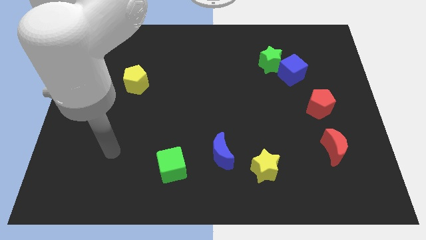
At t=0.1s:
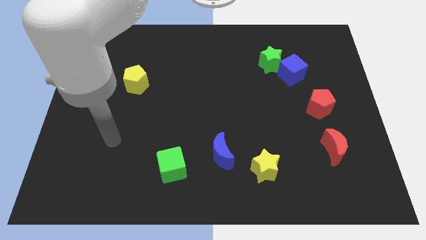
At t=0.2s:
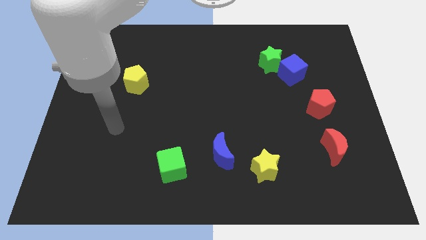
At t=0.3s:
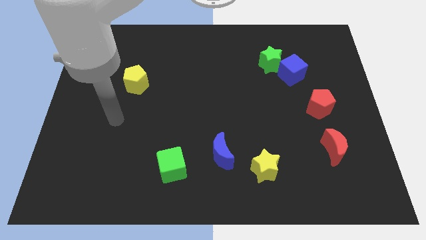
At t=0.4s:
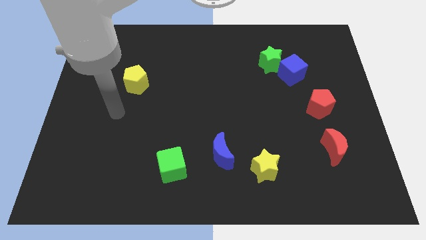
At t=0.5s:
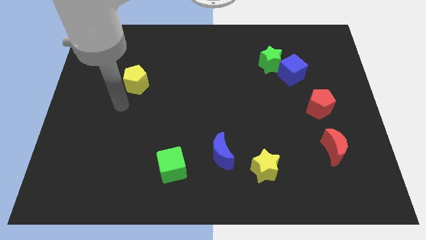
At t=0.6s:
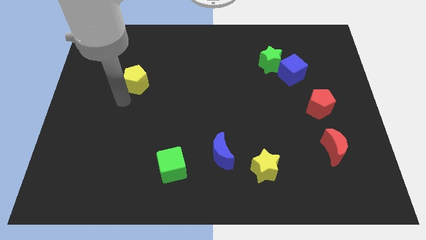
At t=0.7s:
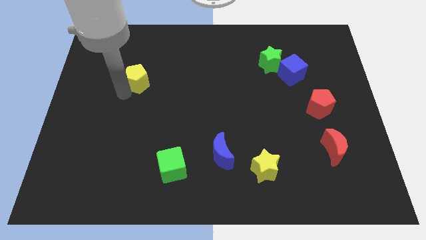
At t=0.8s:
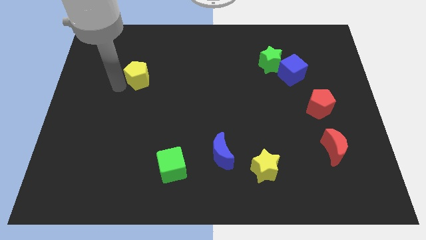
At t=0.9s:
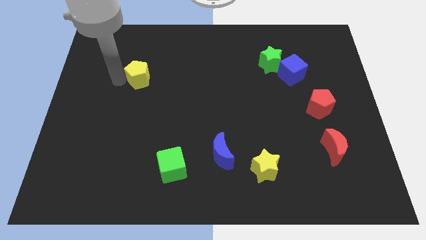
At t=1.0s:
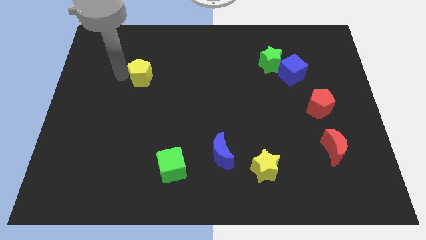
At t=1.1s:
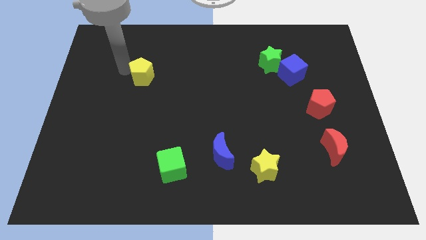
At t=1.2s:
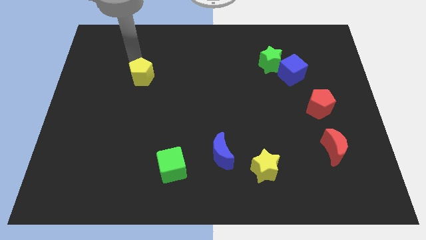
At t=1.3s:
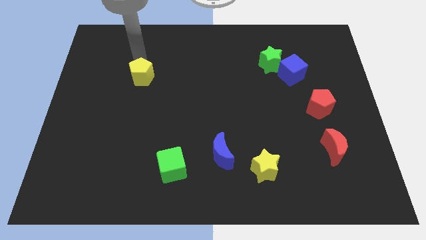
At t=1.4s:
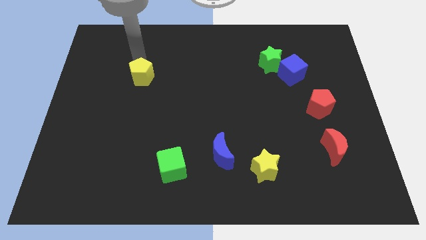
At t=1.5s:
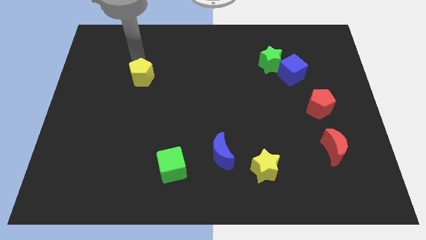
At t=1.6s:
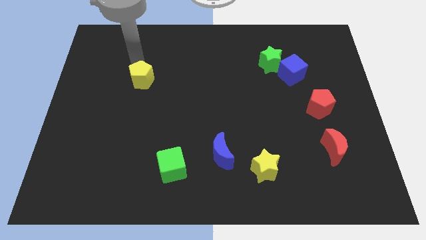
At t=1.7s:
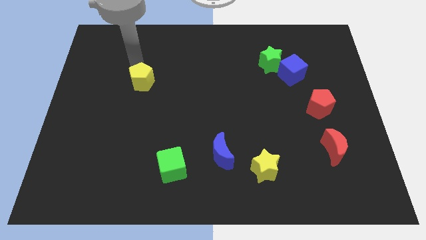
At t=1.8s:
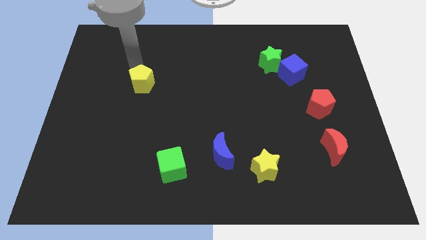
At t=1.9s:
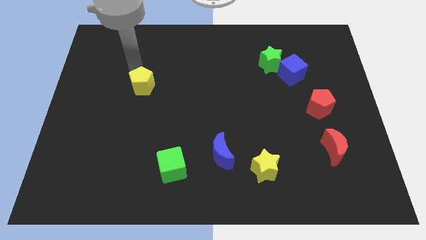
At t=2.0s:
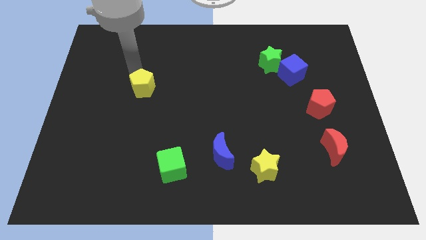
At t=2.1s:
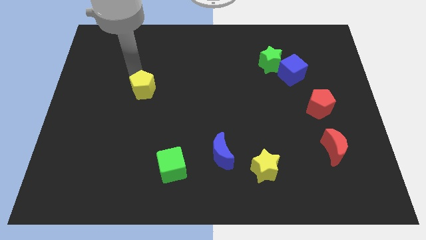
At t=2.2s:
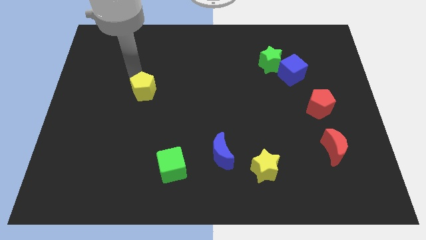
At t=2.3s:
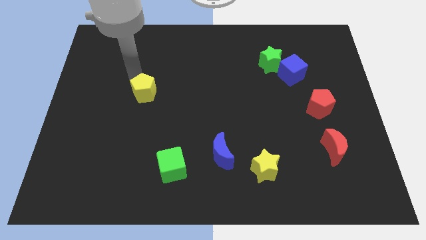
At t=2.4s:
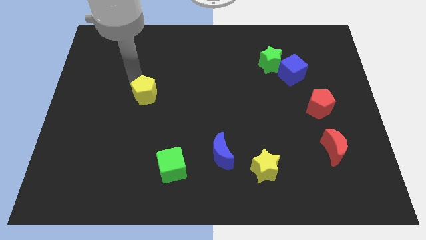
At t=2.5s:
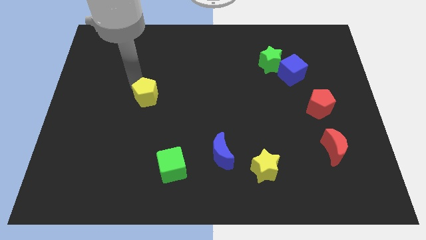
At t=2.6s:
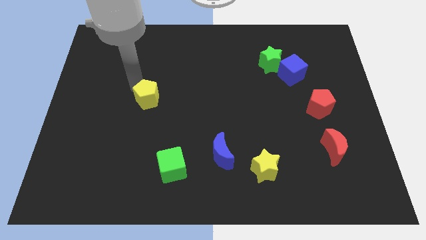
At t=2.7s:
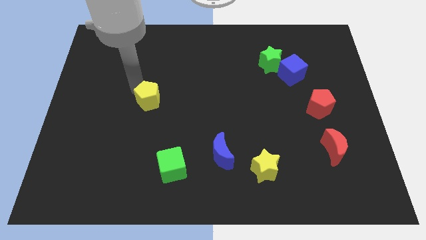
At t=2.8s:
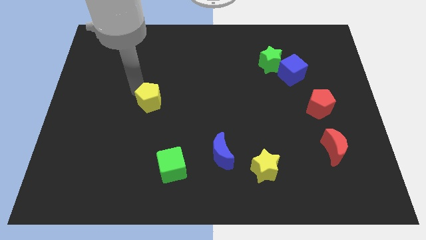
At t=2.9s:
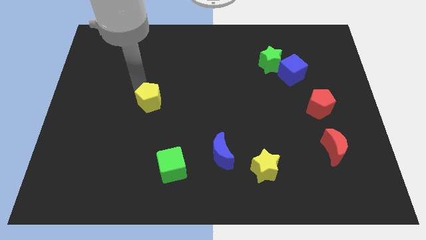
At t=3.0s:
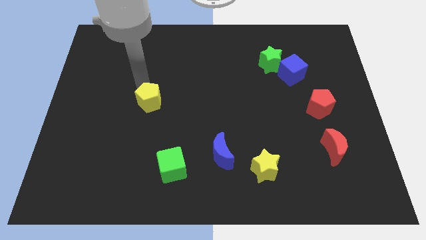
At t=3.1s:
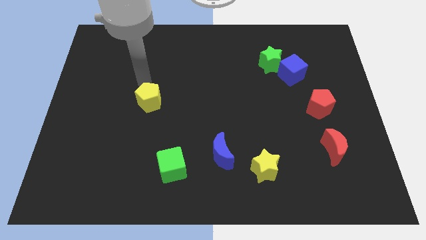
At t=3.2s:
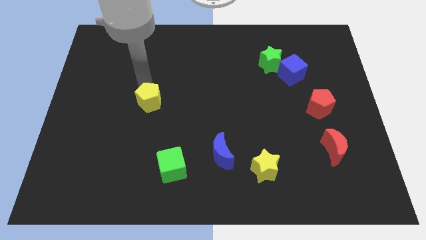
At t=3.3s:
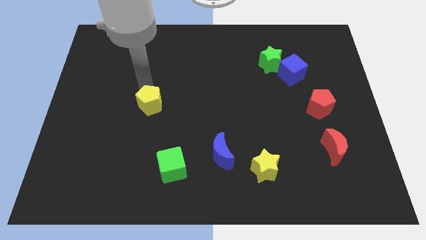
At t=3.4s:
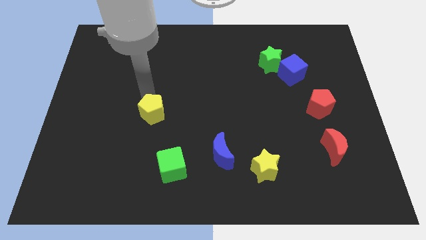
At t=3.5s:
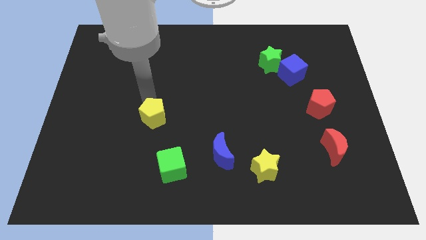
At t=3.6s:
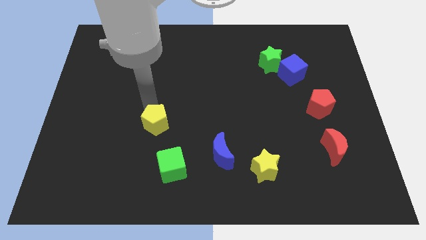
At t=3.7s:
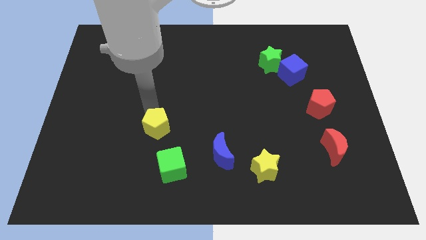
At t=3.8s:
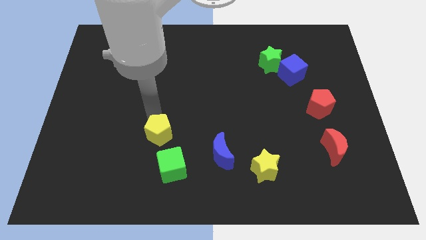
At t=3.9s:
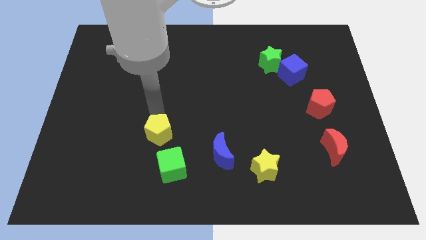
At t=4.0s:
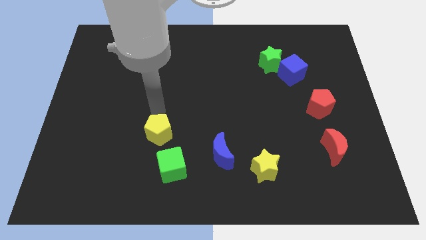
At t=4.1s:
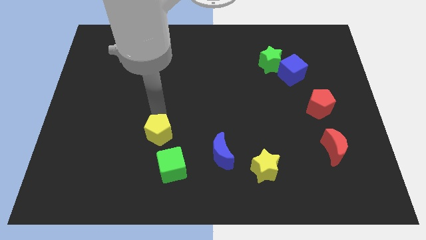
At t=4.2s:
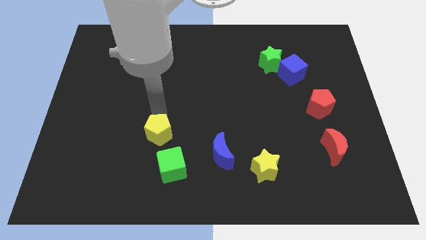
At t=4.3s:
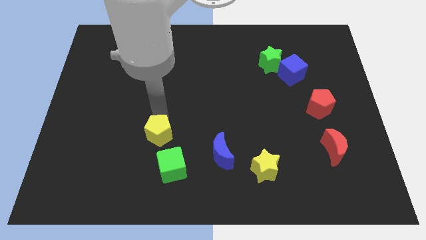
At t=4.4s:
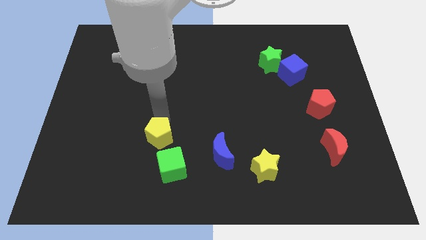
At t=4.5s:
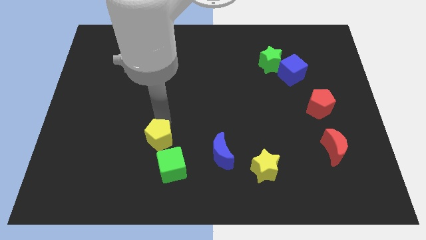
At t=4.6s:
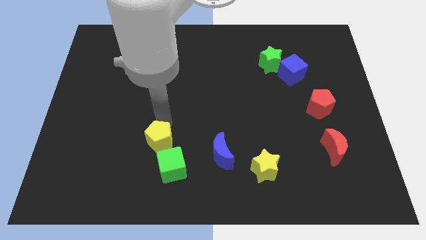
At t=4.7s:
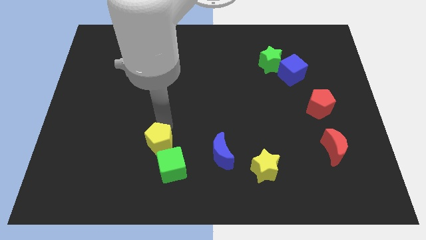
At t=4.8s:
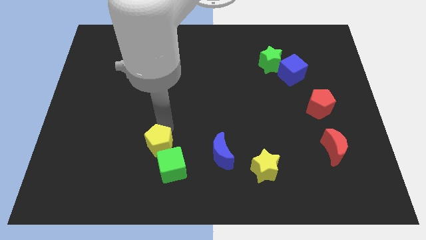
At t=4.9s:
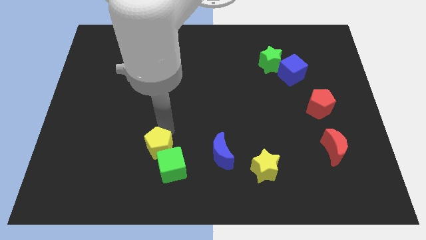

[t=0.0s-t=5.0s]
slide the yellow pentagon close to the green cube

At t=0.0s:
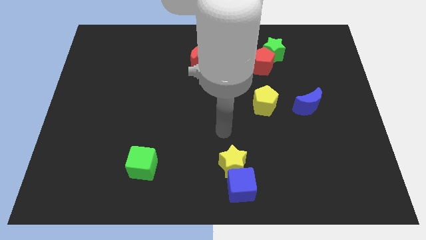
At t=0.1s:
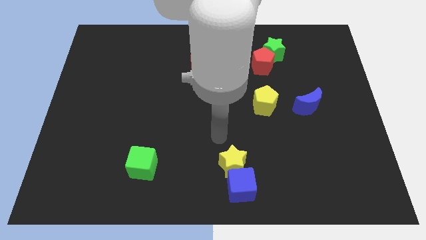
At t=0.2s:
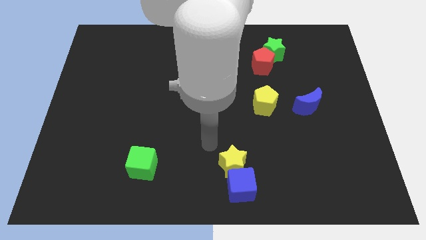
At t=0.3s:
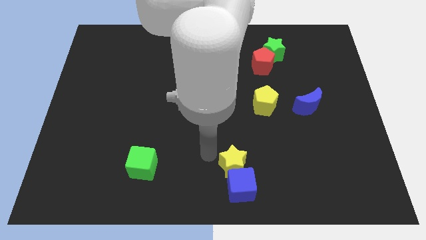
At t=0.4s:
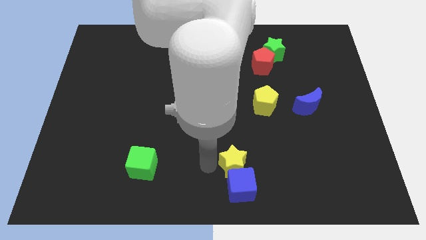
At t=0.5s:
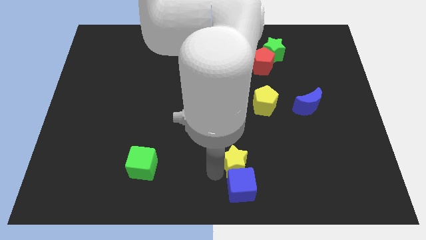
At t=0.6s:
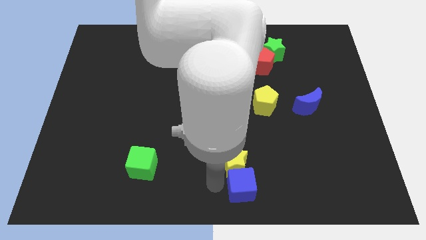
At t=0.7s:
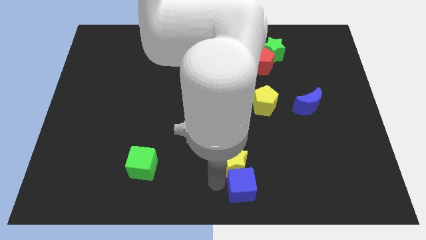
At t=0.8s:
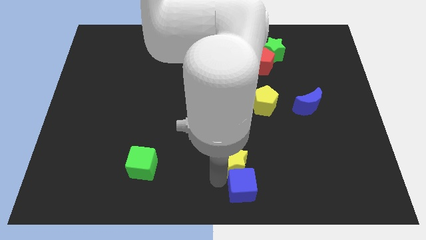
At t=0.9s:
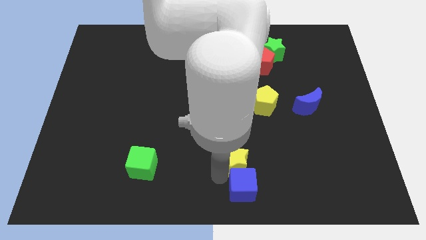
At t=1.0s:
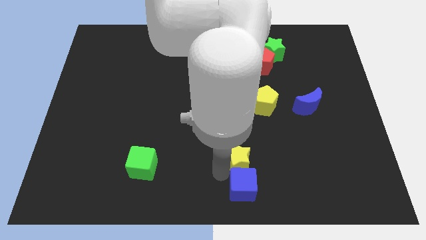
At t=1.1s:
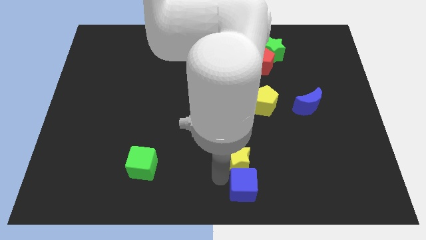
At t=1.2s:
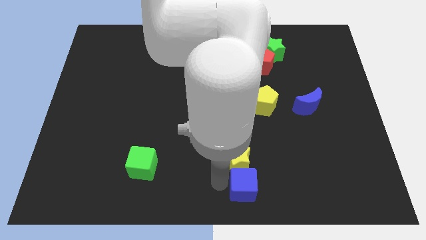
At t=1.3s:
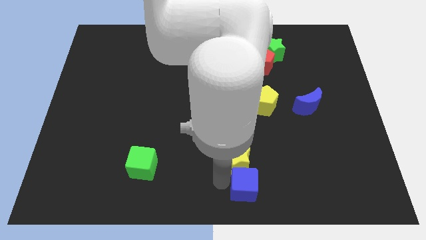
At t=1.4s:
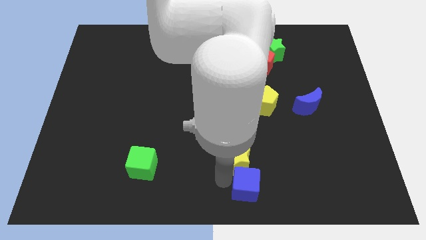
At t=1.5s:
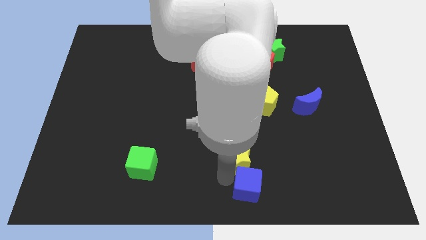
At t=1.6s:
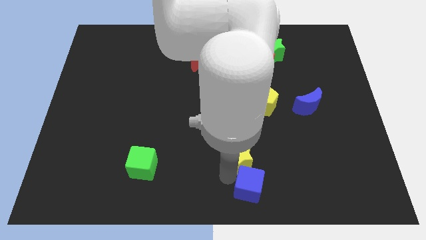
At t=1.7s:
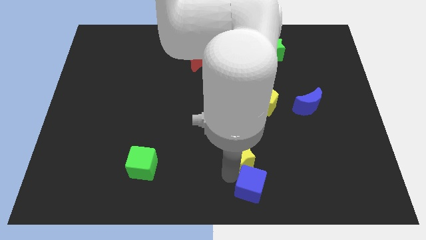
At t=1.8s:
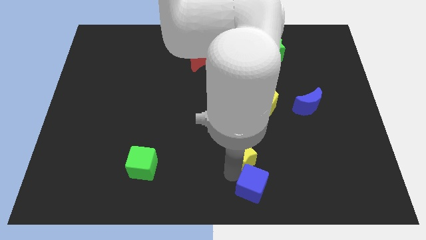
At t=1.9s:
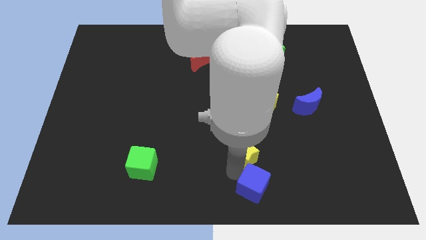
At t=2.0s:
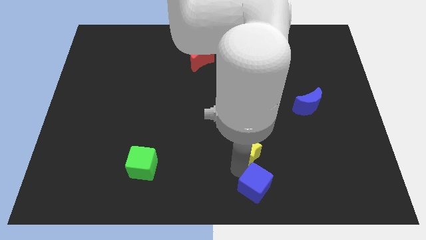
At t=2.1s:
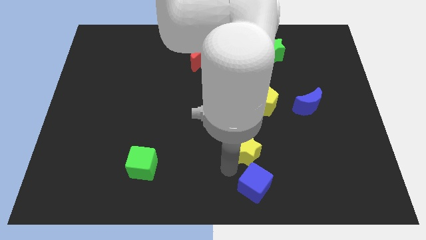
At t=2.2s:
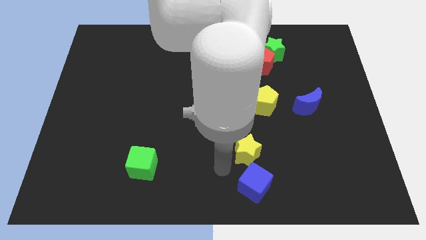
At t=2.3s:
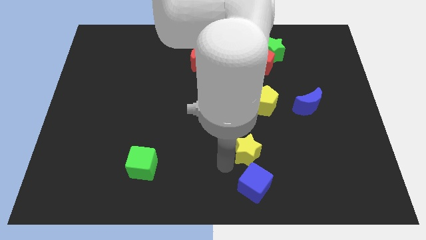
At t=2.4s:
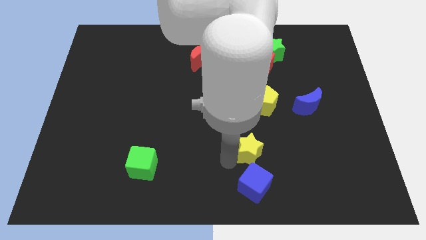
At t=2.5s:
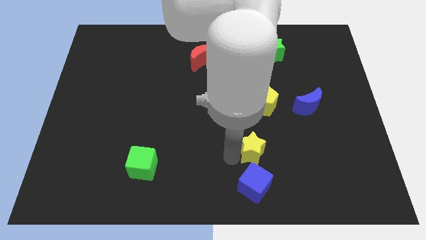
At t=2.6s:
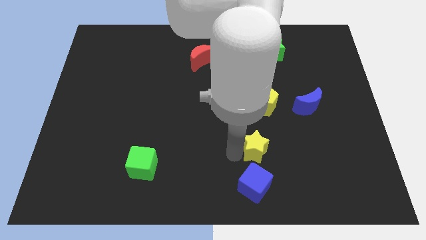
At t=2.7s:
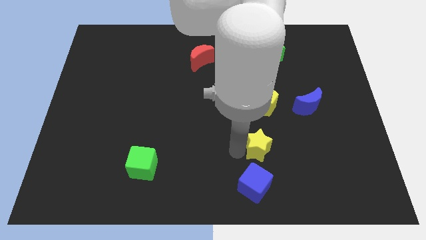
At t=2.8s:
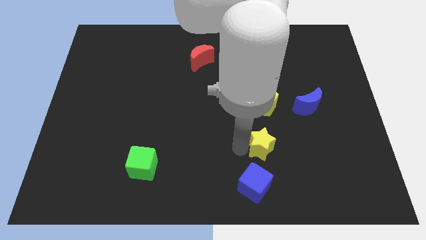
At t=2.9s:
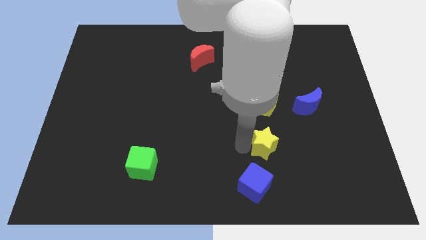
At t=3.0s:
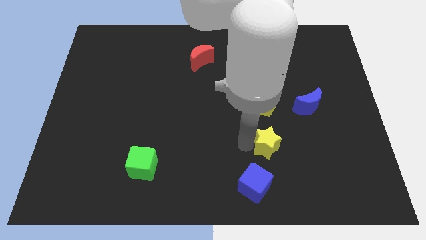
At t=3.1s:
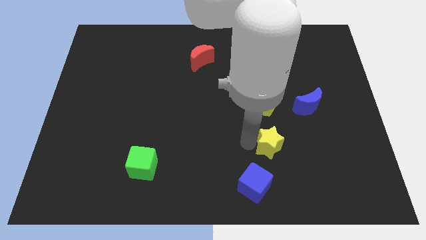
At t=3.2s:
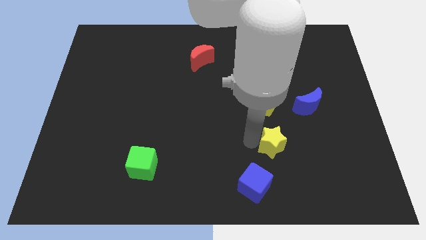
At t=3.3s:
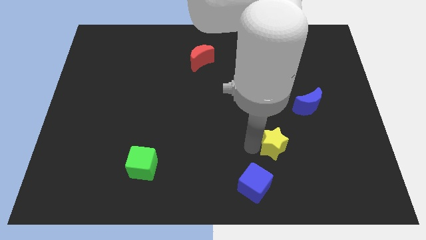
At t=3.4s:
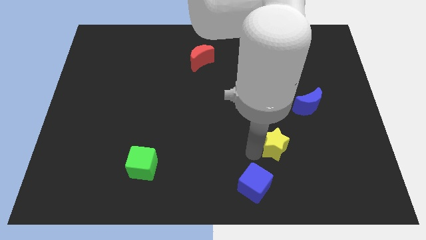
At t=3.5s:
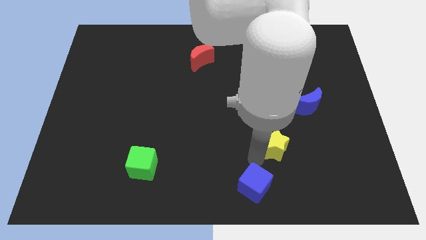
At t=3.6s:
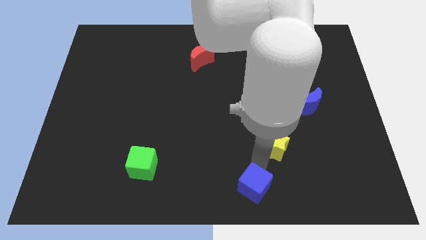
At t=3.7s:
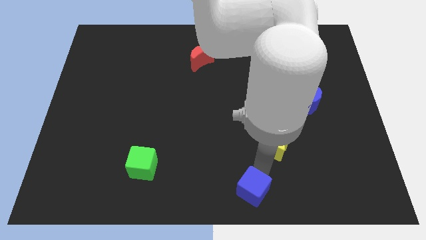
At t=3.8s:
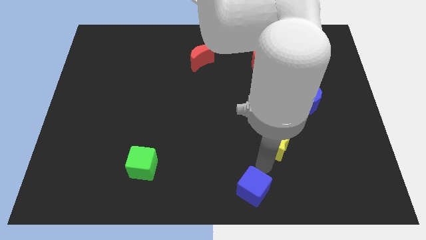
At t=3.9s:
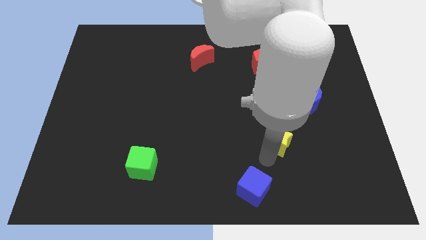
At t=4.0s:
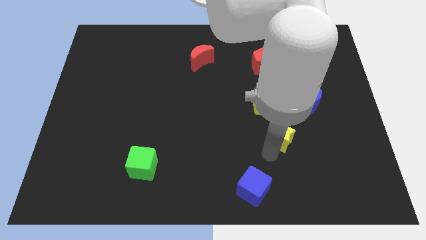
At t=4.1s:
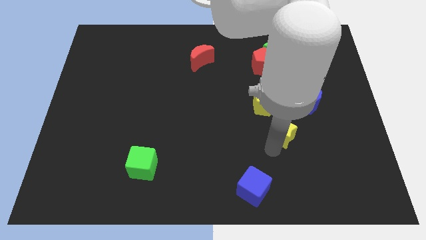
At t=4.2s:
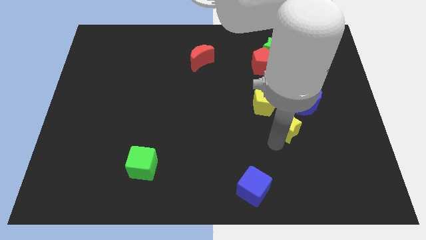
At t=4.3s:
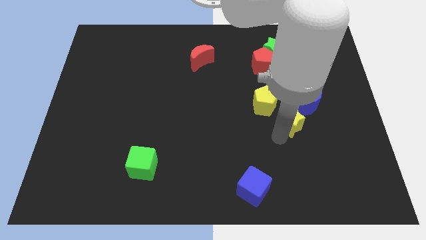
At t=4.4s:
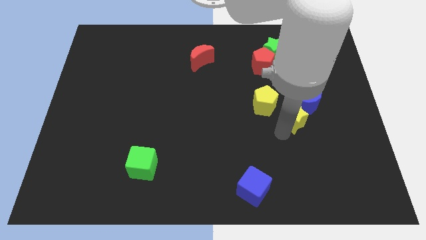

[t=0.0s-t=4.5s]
move the yellow star to the blue moon
